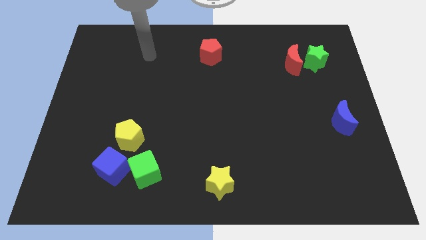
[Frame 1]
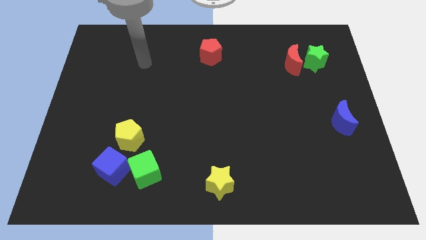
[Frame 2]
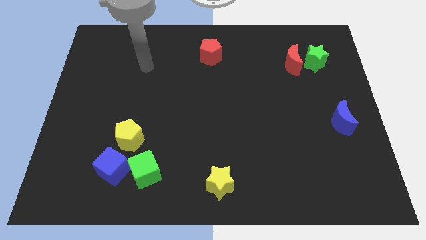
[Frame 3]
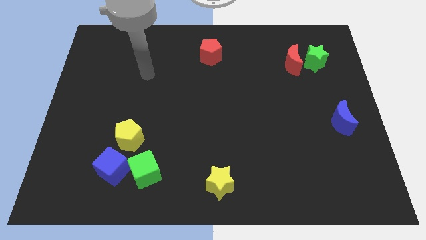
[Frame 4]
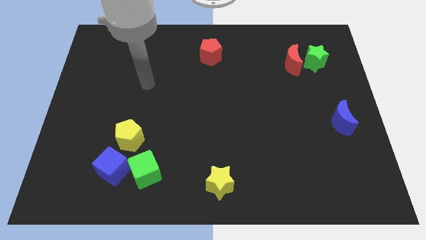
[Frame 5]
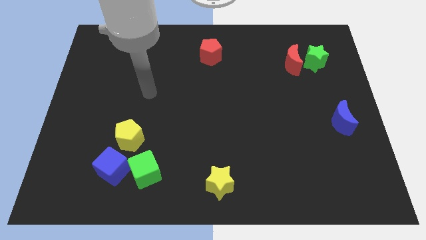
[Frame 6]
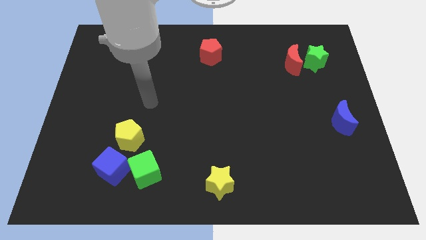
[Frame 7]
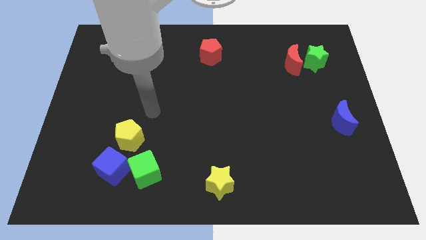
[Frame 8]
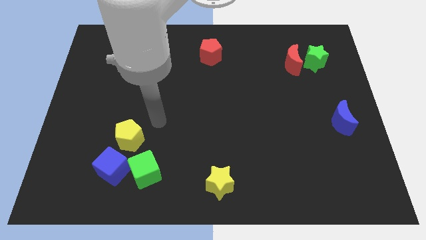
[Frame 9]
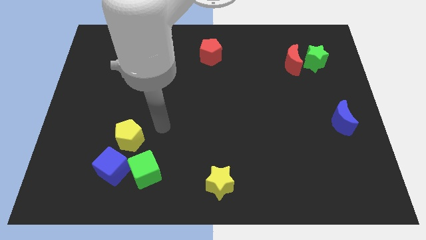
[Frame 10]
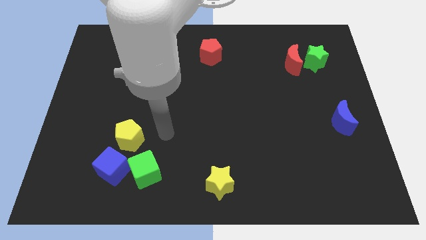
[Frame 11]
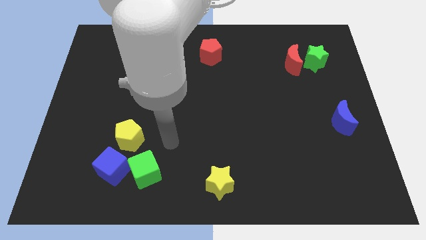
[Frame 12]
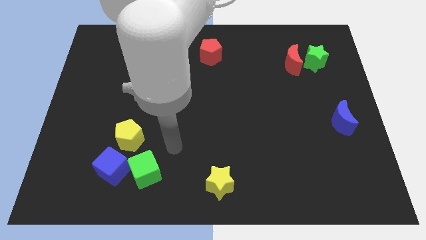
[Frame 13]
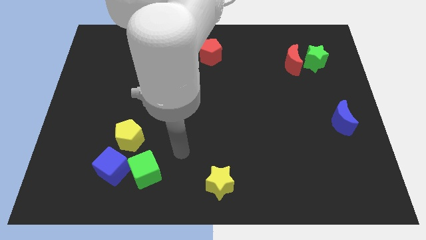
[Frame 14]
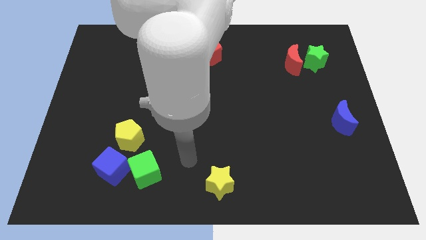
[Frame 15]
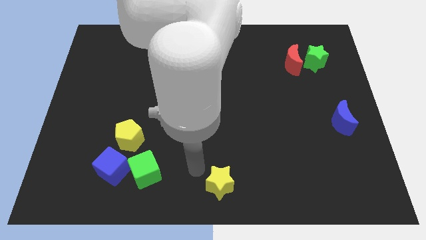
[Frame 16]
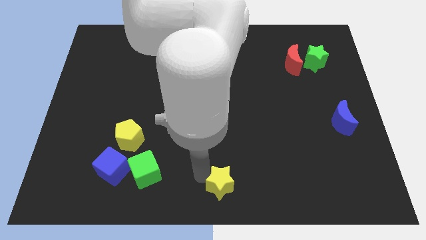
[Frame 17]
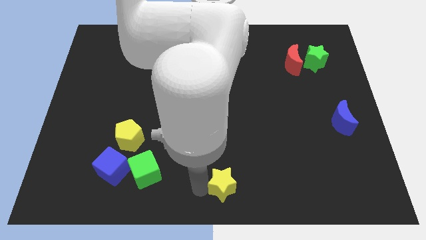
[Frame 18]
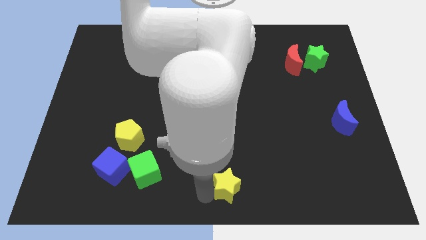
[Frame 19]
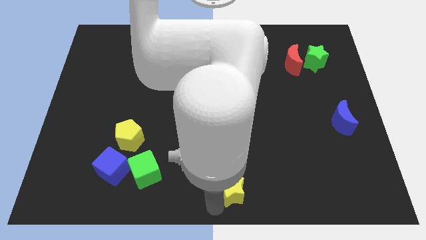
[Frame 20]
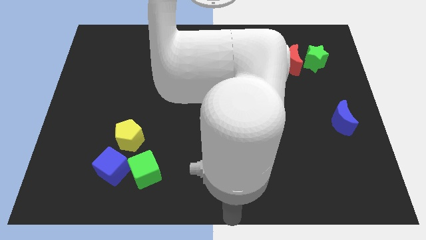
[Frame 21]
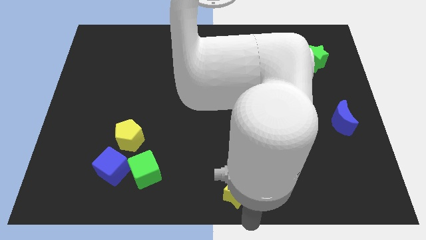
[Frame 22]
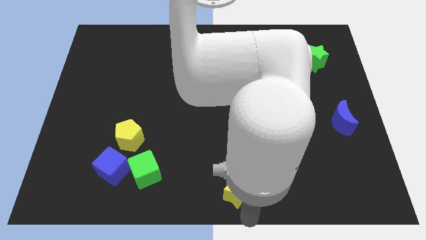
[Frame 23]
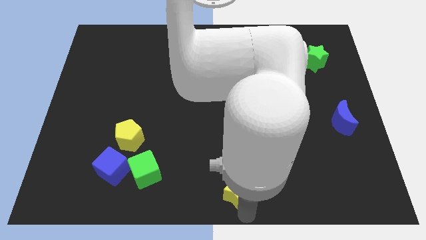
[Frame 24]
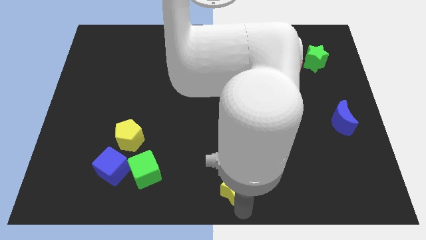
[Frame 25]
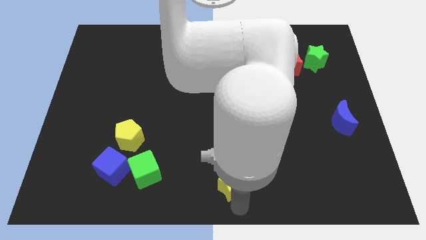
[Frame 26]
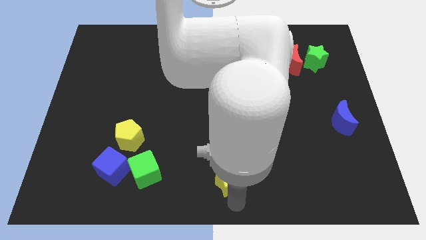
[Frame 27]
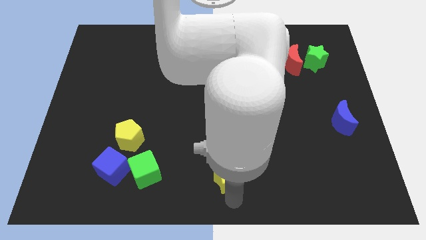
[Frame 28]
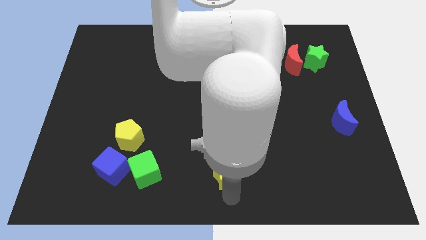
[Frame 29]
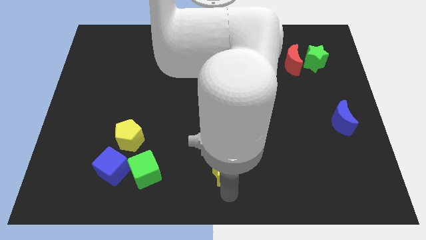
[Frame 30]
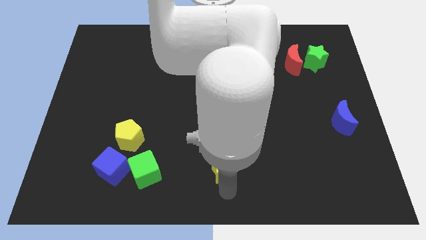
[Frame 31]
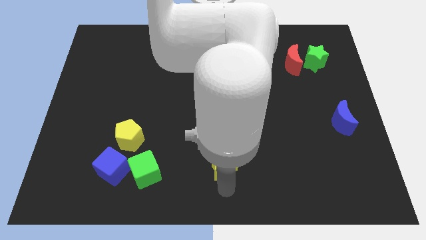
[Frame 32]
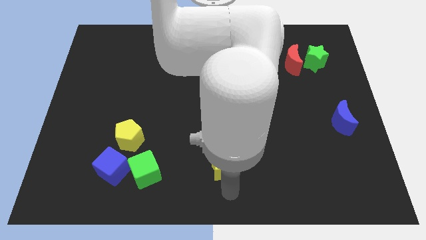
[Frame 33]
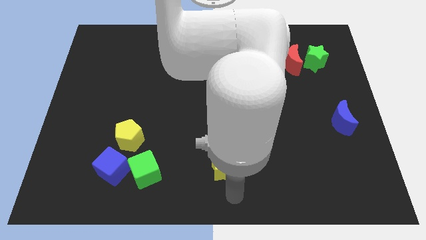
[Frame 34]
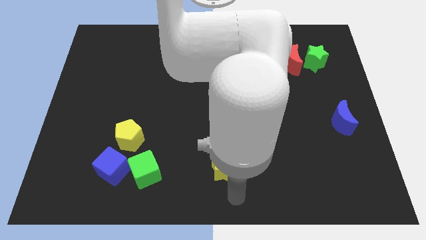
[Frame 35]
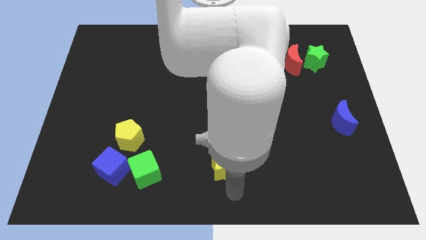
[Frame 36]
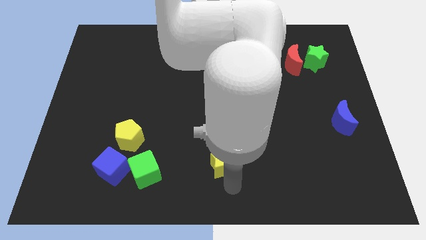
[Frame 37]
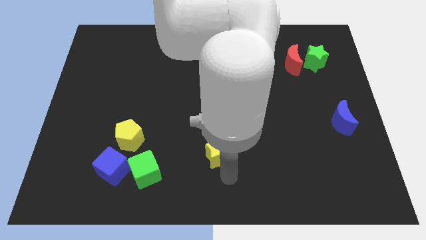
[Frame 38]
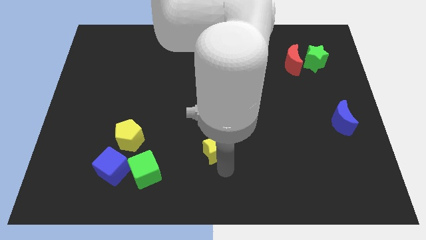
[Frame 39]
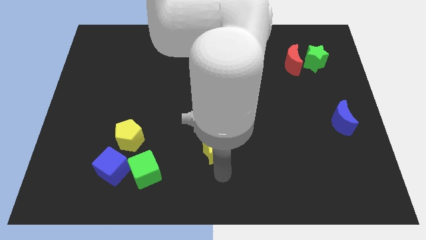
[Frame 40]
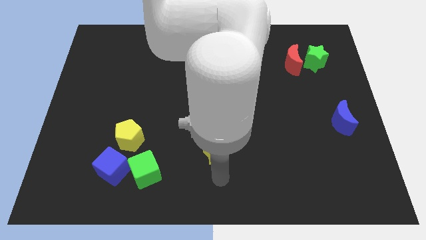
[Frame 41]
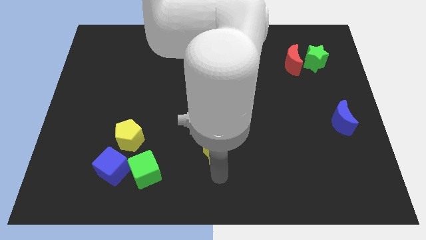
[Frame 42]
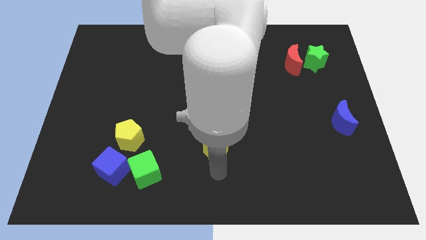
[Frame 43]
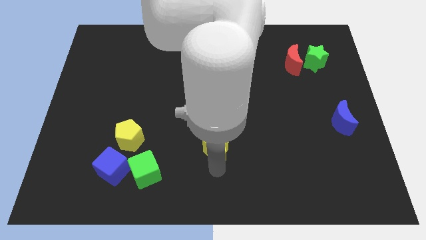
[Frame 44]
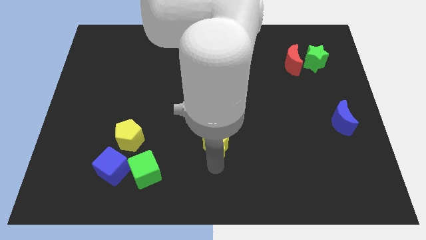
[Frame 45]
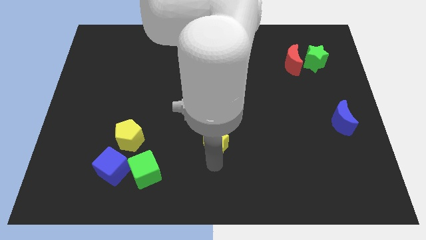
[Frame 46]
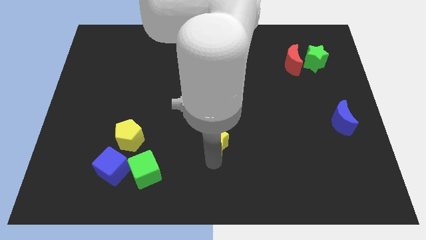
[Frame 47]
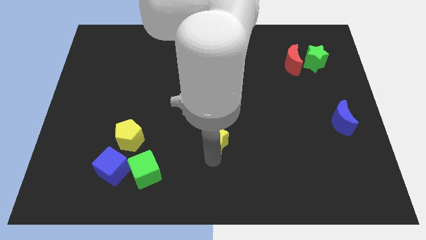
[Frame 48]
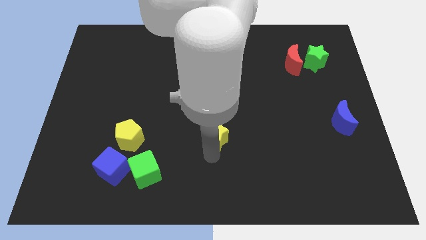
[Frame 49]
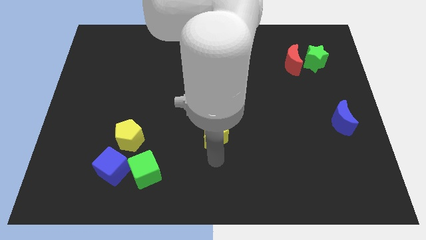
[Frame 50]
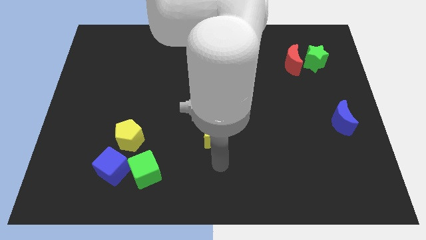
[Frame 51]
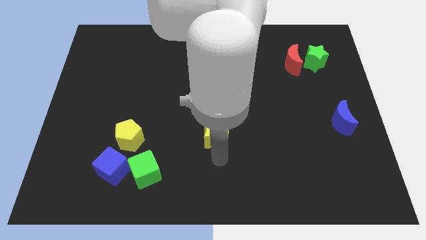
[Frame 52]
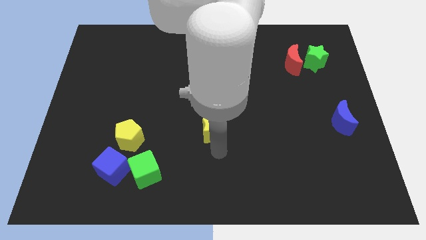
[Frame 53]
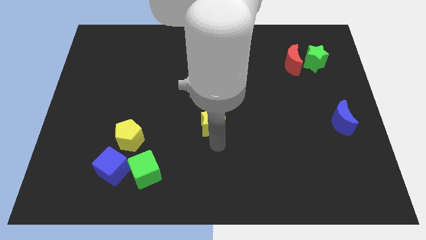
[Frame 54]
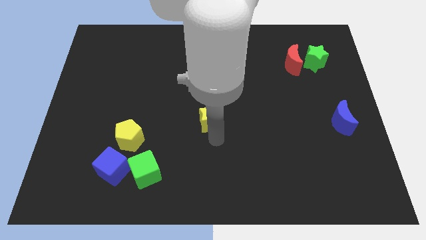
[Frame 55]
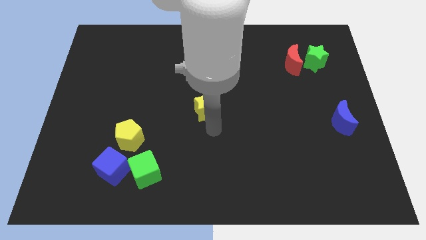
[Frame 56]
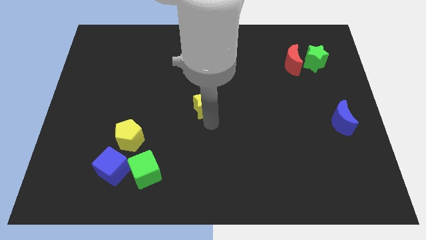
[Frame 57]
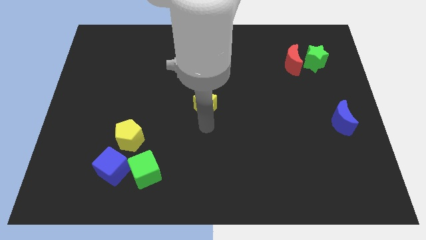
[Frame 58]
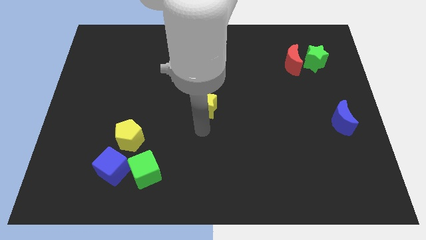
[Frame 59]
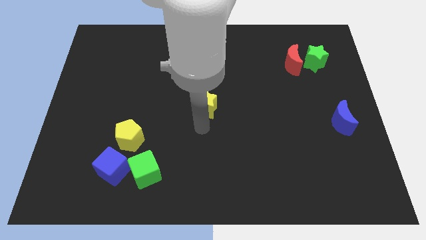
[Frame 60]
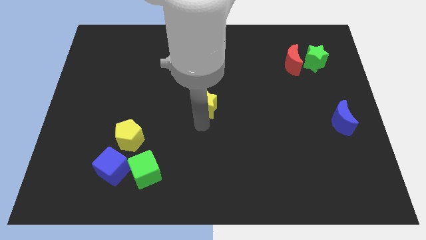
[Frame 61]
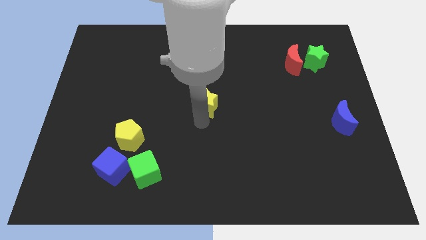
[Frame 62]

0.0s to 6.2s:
push the yellow star up

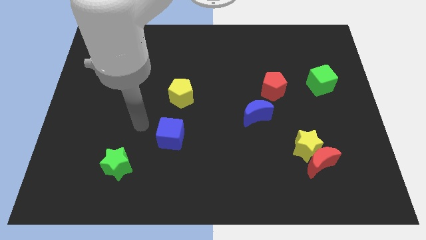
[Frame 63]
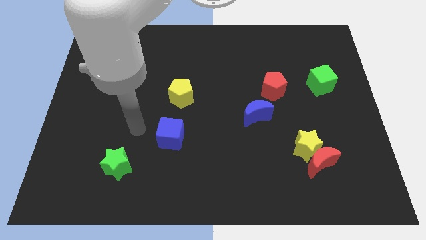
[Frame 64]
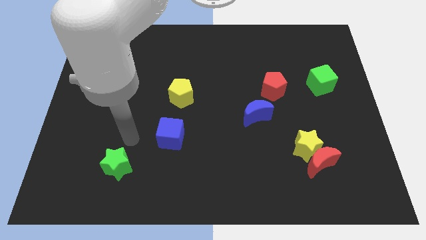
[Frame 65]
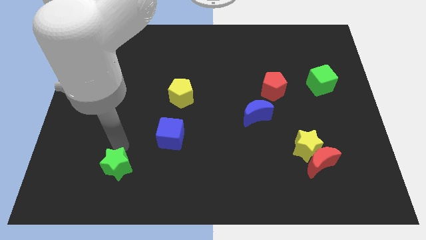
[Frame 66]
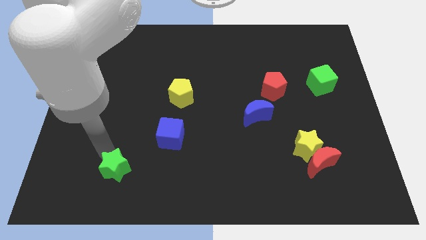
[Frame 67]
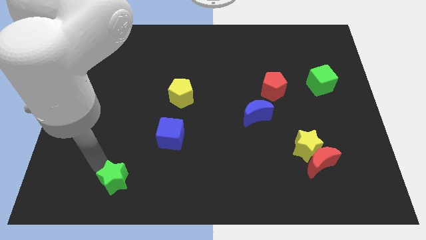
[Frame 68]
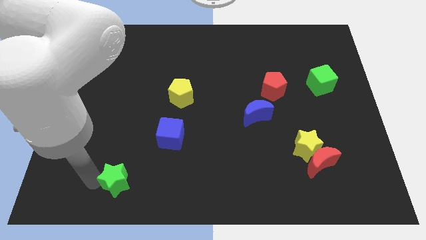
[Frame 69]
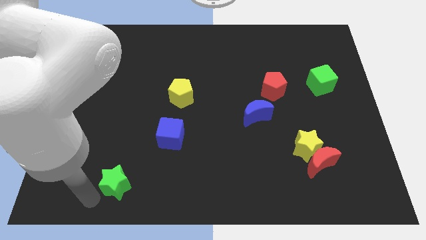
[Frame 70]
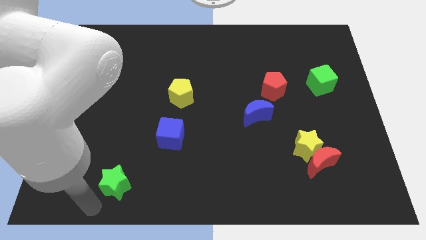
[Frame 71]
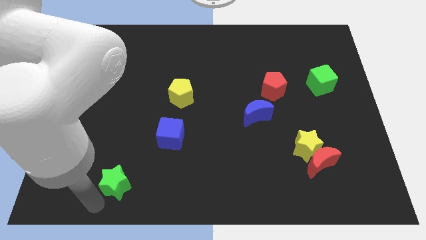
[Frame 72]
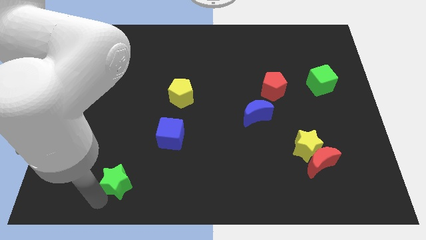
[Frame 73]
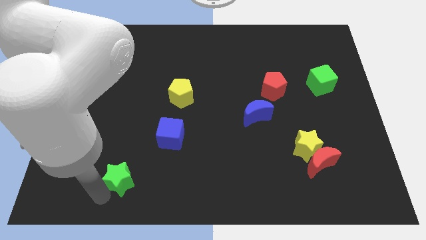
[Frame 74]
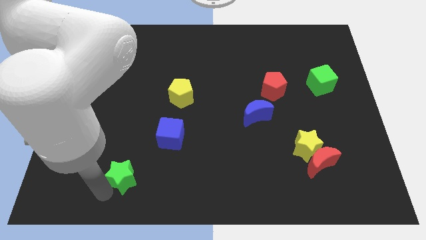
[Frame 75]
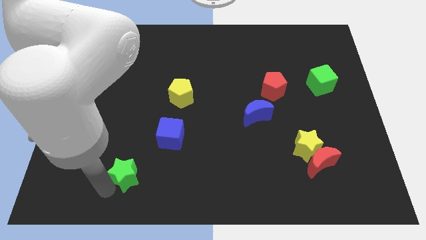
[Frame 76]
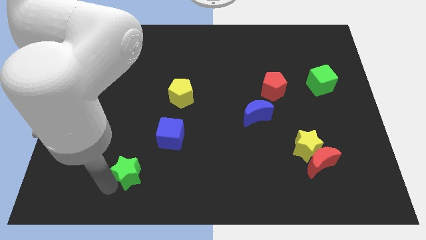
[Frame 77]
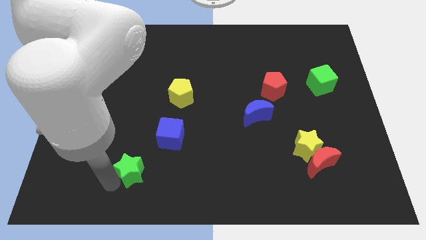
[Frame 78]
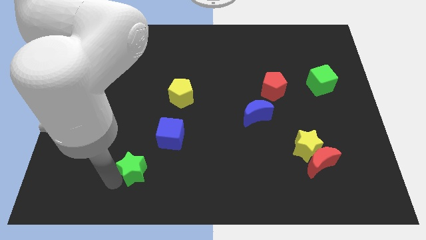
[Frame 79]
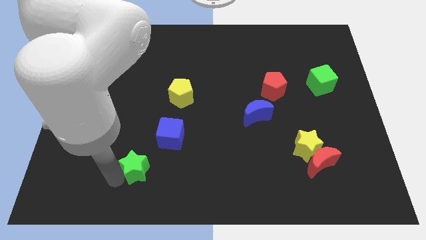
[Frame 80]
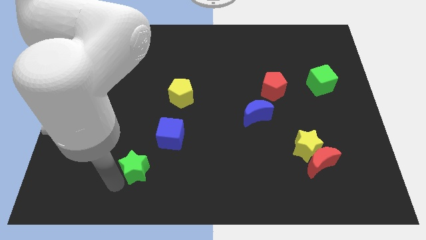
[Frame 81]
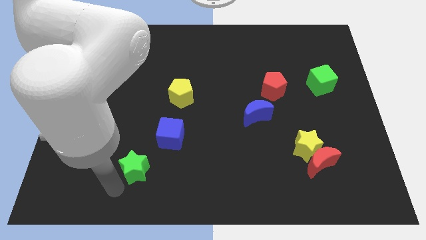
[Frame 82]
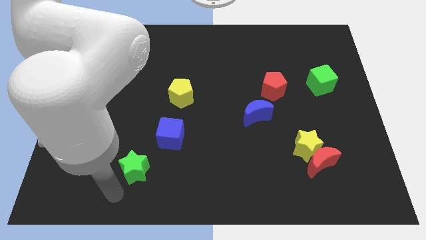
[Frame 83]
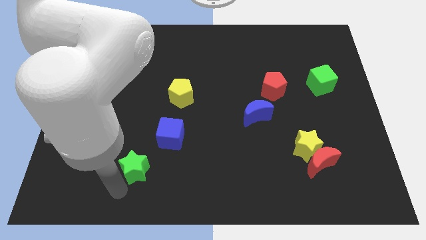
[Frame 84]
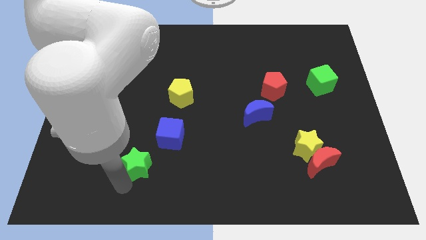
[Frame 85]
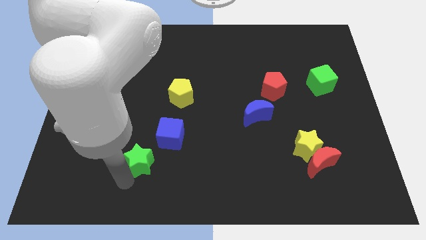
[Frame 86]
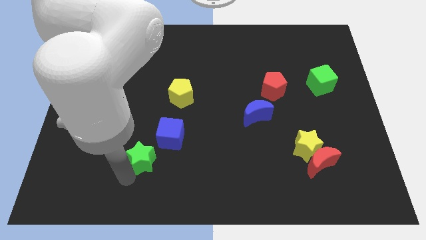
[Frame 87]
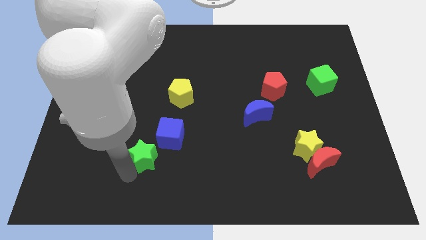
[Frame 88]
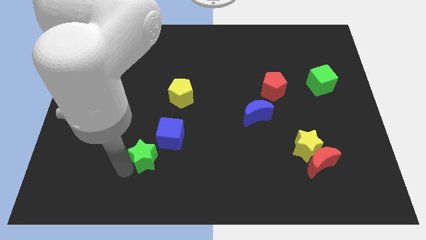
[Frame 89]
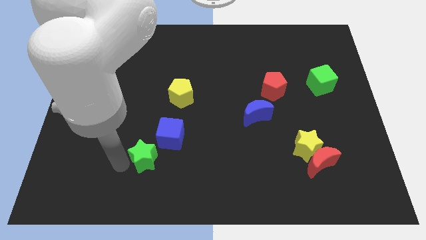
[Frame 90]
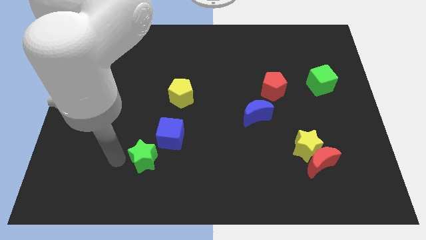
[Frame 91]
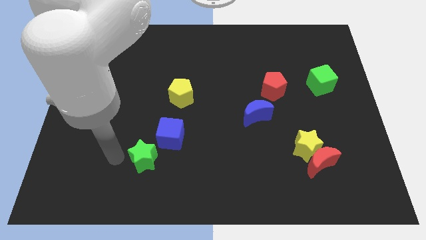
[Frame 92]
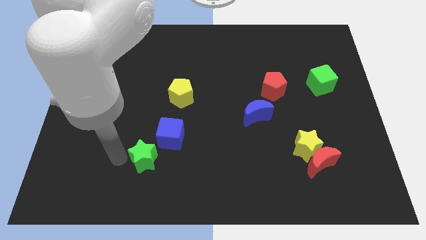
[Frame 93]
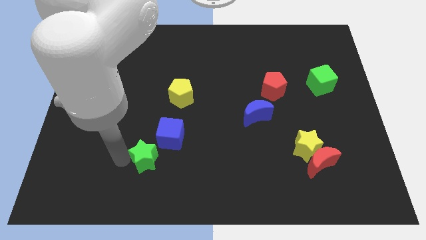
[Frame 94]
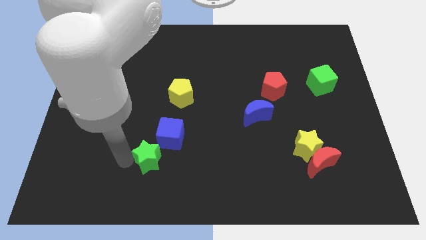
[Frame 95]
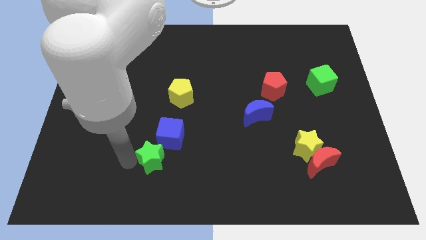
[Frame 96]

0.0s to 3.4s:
push the green star right a little bit
